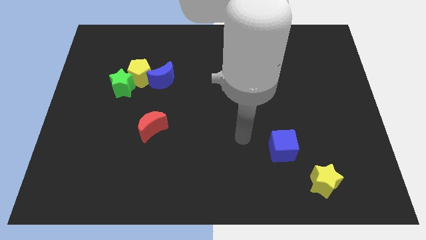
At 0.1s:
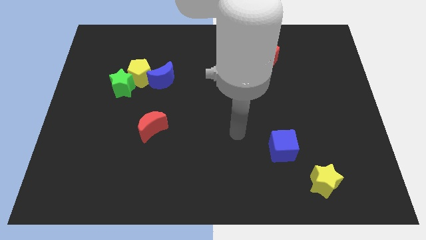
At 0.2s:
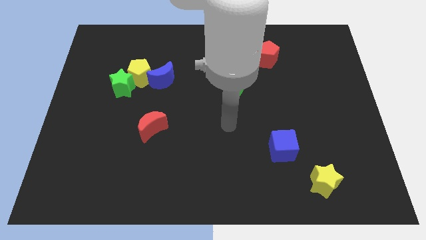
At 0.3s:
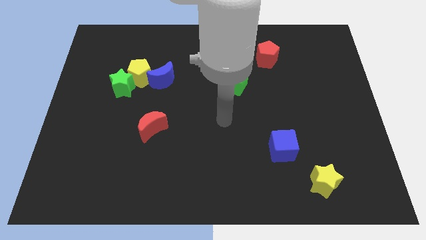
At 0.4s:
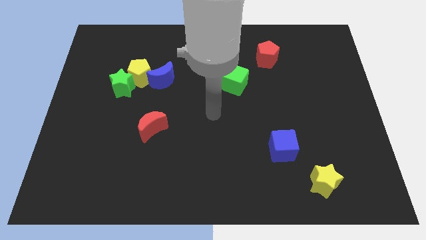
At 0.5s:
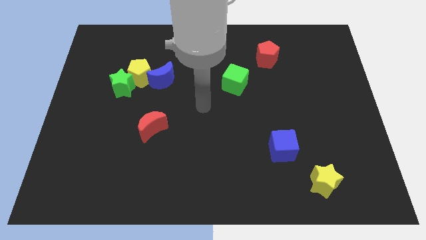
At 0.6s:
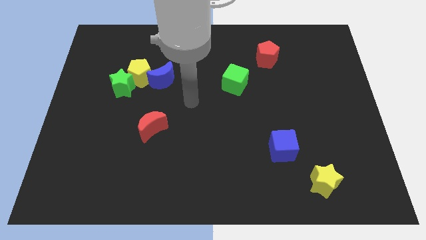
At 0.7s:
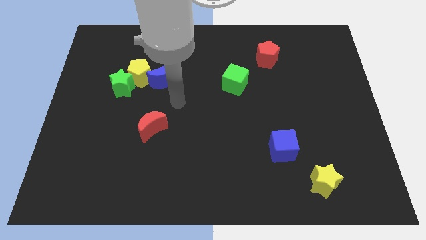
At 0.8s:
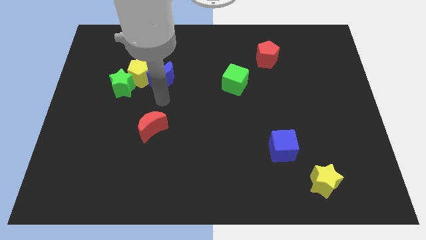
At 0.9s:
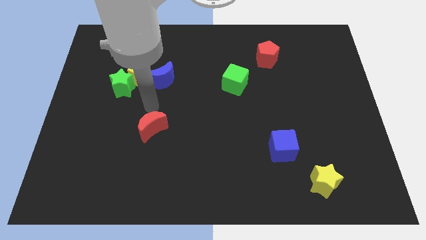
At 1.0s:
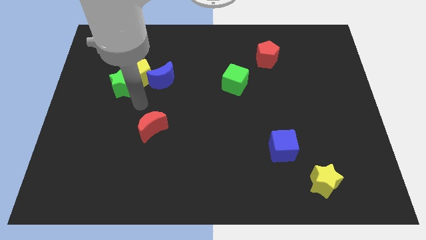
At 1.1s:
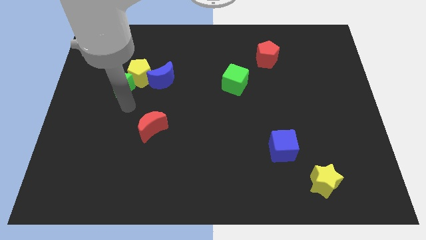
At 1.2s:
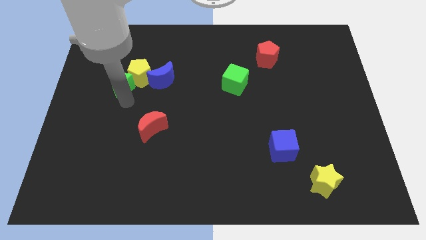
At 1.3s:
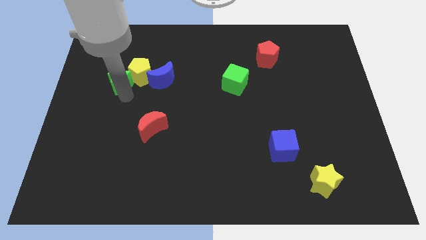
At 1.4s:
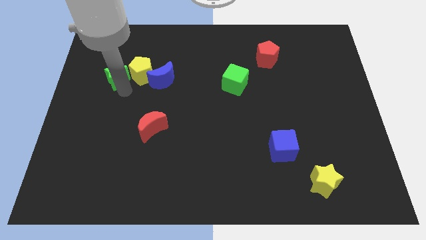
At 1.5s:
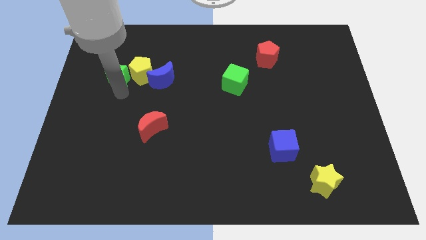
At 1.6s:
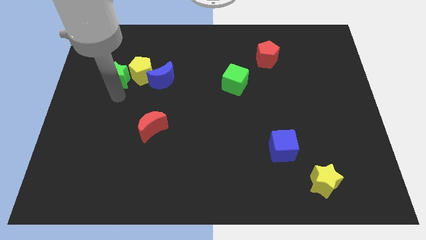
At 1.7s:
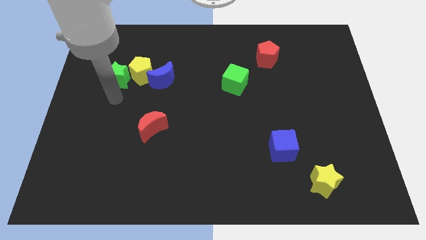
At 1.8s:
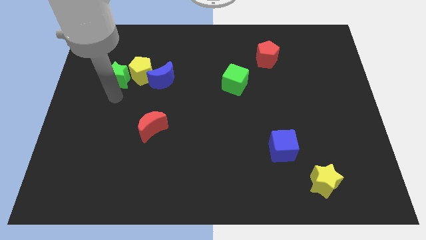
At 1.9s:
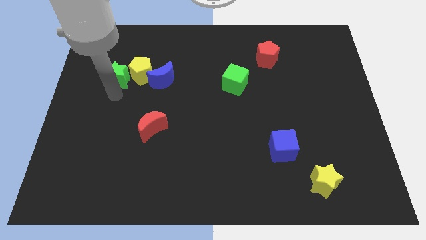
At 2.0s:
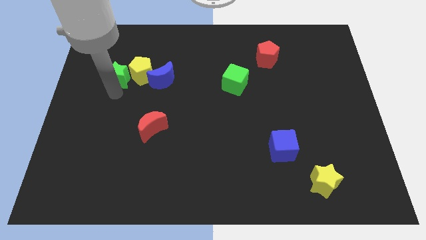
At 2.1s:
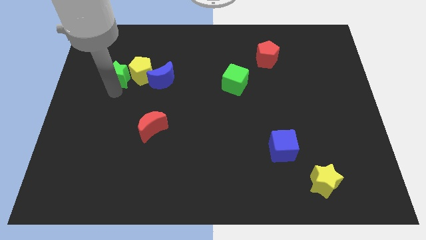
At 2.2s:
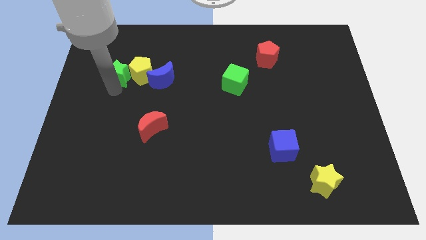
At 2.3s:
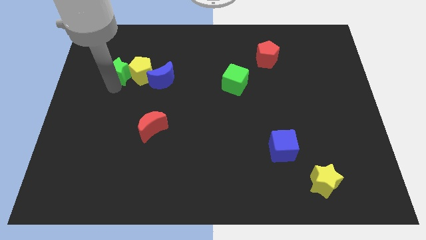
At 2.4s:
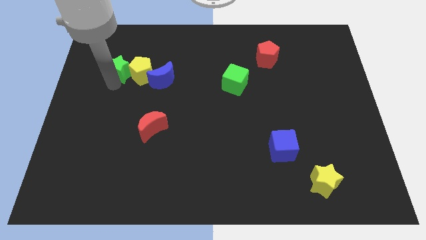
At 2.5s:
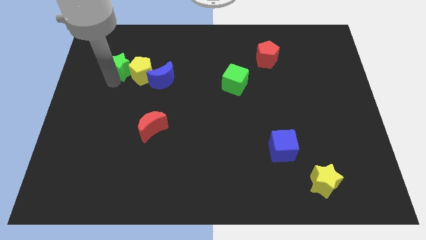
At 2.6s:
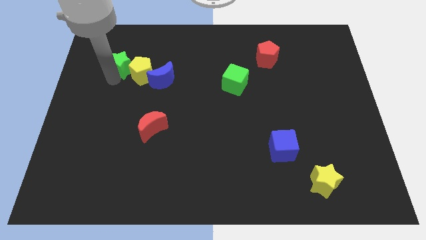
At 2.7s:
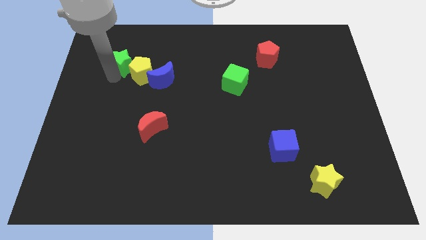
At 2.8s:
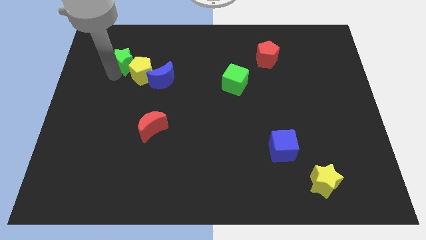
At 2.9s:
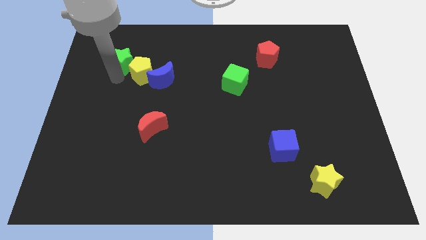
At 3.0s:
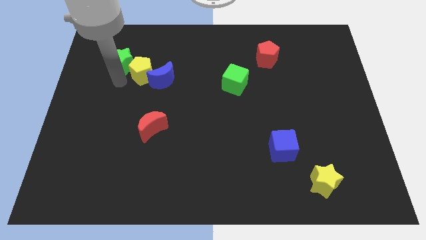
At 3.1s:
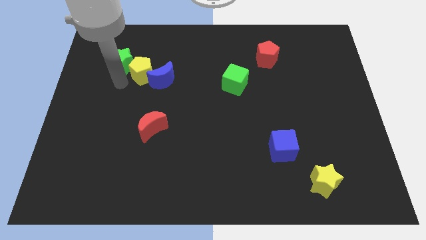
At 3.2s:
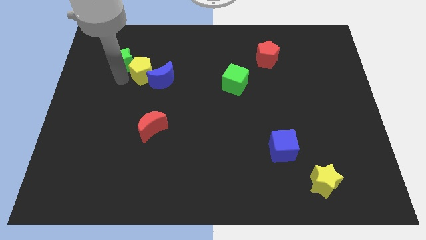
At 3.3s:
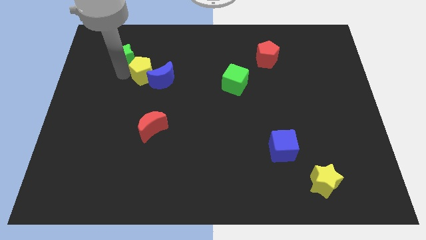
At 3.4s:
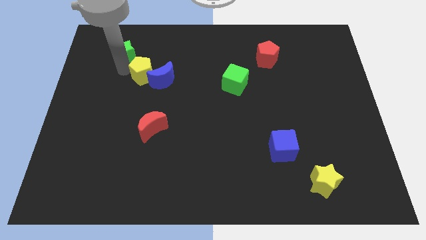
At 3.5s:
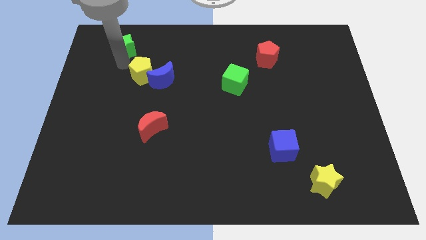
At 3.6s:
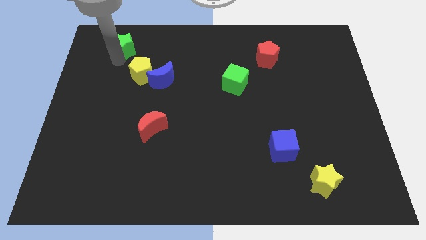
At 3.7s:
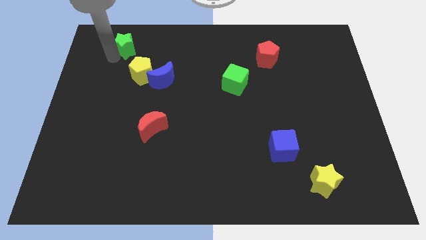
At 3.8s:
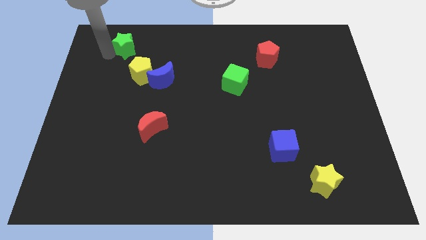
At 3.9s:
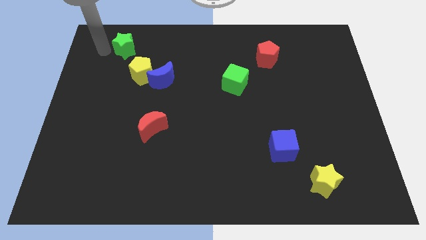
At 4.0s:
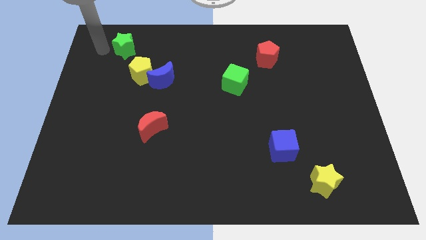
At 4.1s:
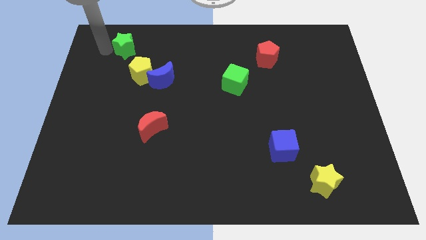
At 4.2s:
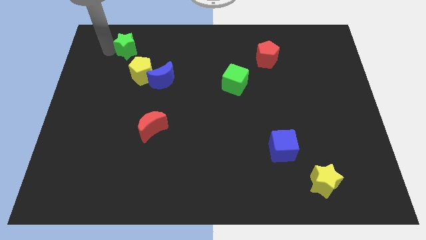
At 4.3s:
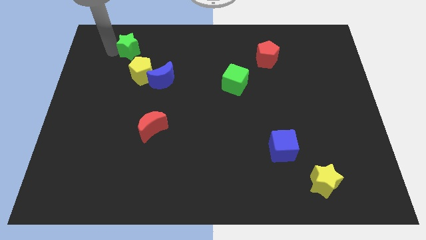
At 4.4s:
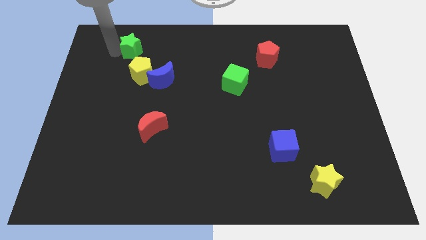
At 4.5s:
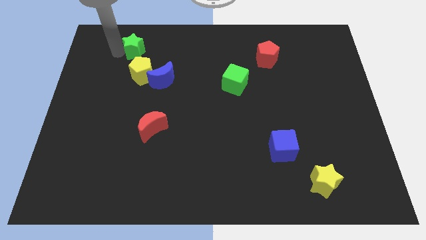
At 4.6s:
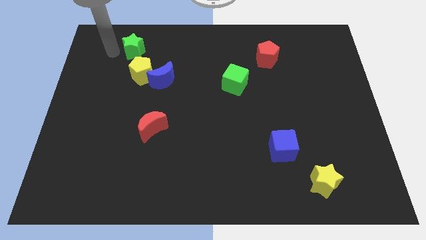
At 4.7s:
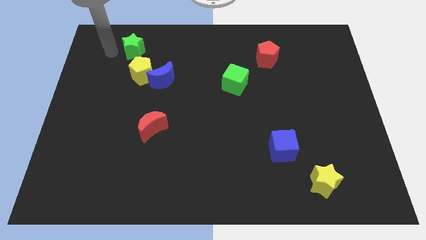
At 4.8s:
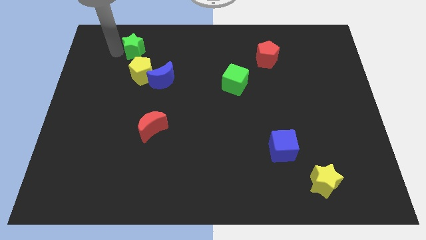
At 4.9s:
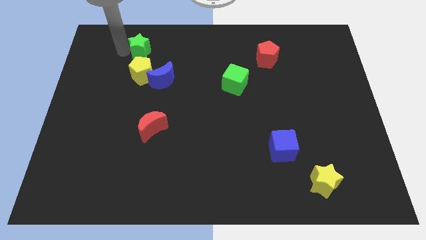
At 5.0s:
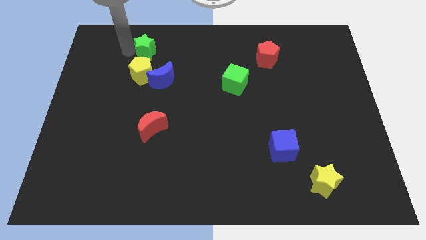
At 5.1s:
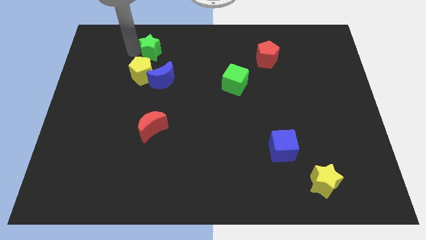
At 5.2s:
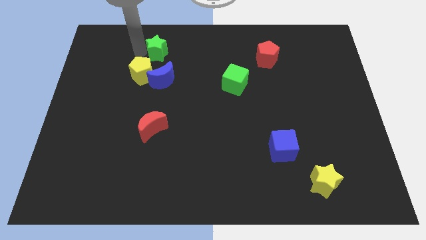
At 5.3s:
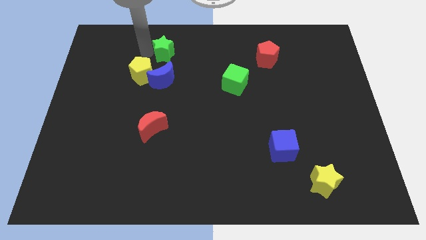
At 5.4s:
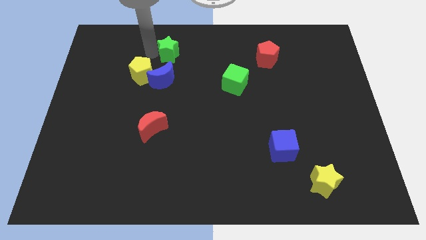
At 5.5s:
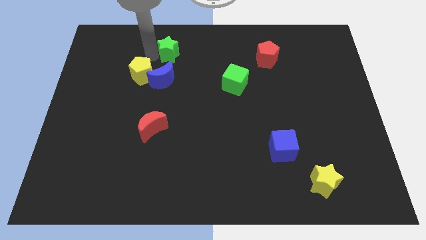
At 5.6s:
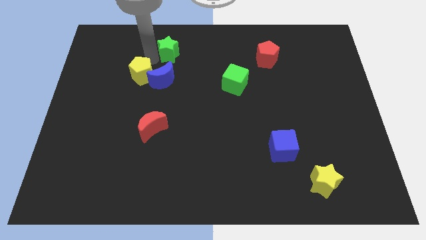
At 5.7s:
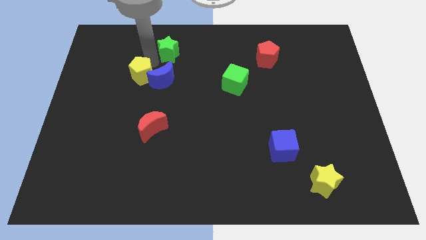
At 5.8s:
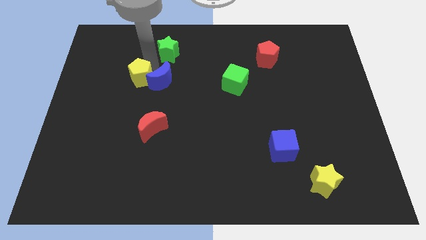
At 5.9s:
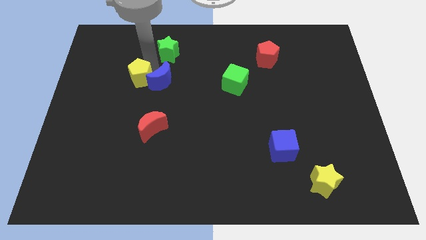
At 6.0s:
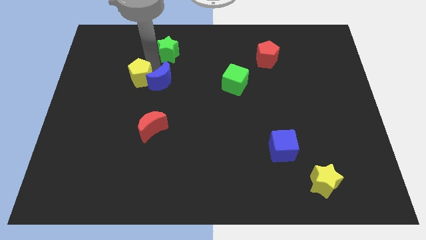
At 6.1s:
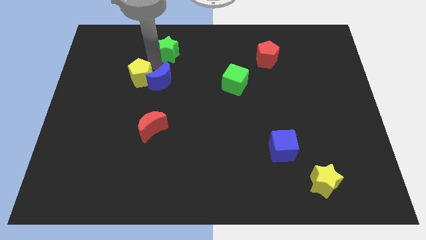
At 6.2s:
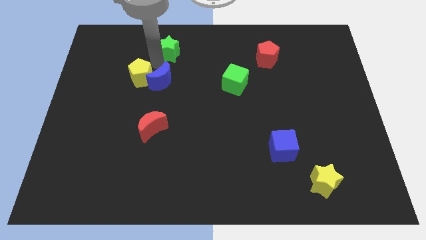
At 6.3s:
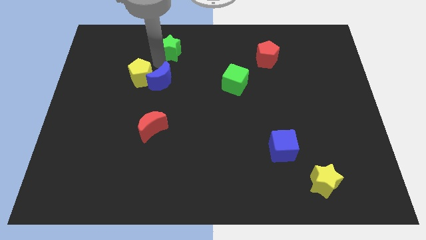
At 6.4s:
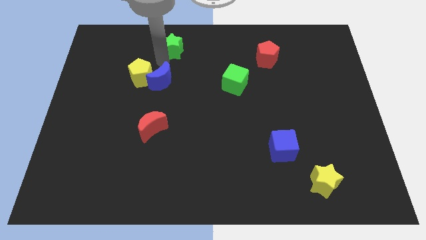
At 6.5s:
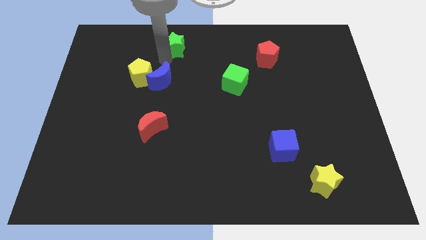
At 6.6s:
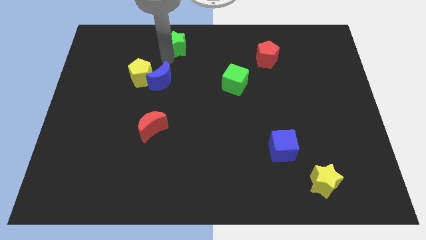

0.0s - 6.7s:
put the green star to the top side
